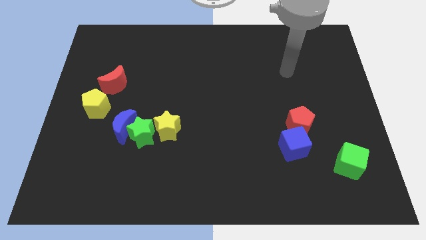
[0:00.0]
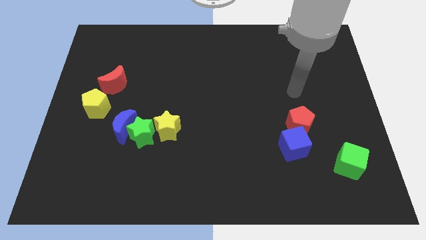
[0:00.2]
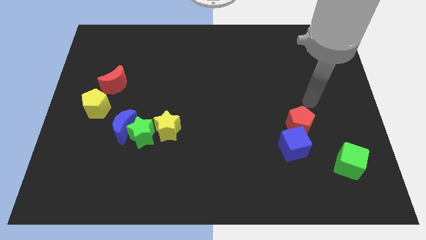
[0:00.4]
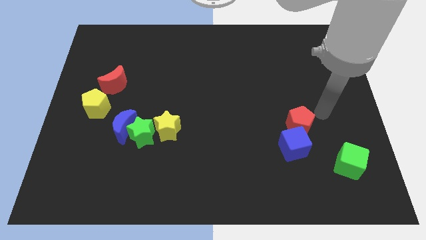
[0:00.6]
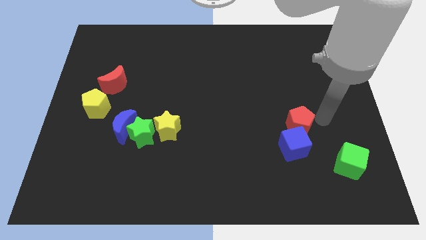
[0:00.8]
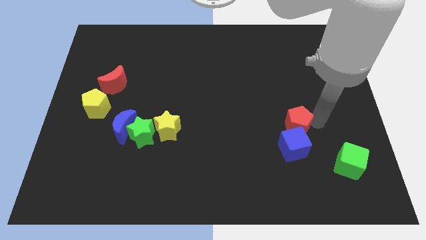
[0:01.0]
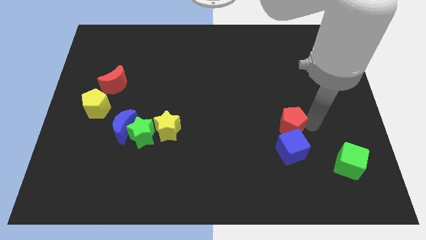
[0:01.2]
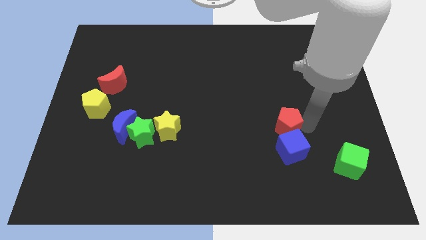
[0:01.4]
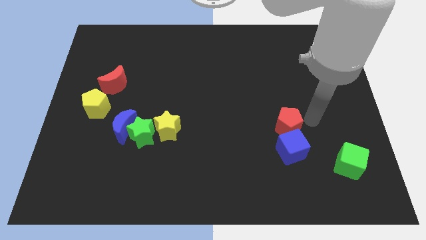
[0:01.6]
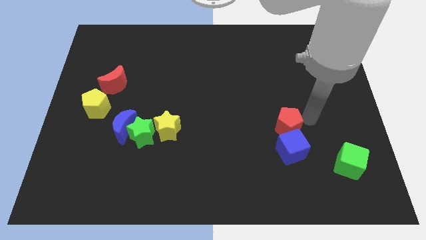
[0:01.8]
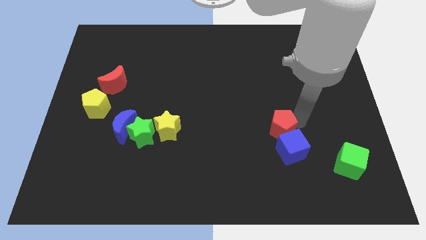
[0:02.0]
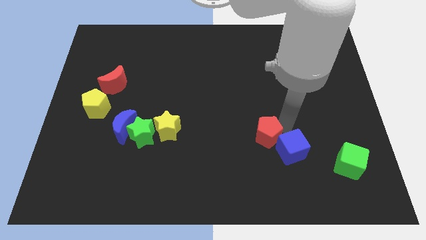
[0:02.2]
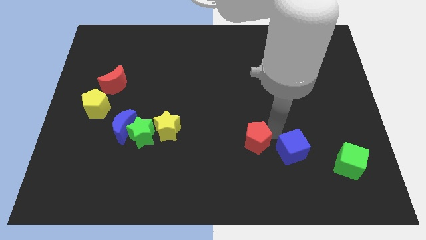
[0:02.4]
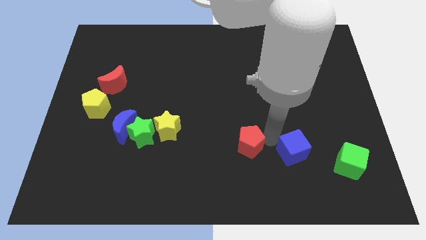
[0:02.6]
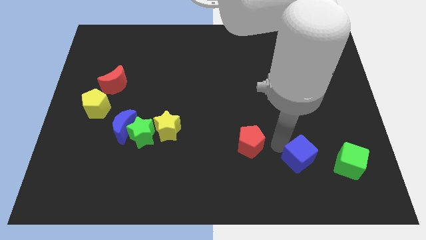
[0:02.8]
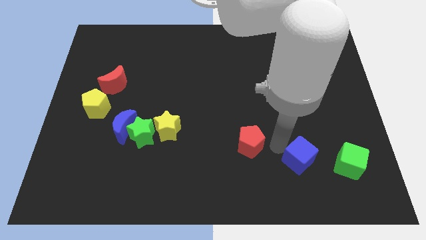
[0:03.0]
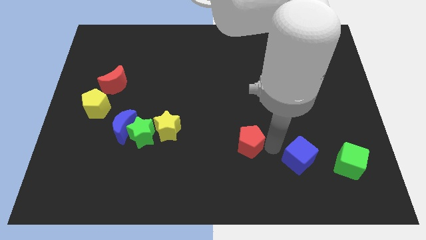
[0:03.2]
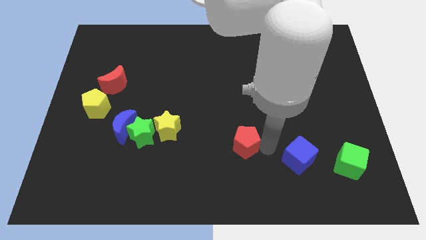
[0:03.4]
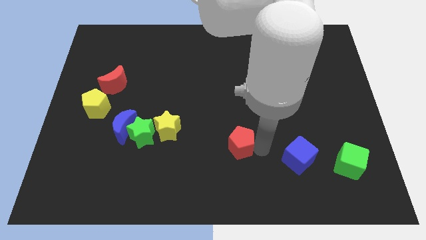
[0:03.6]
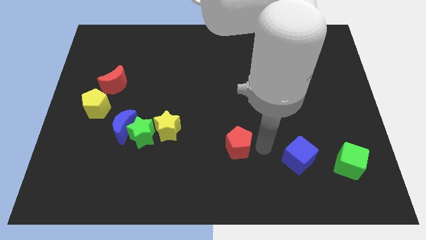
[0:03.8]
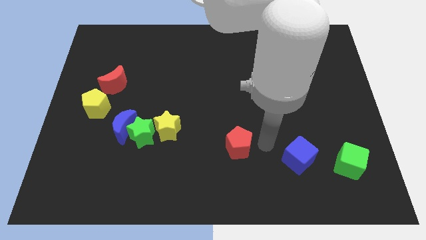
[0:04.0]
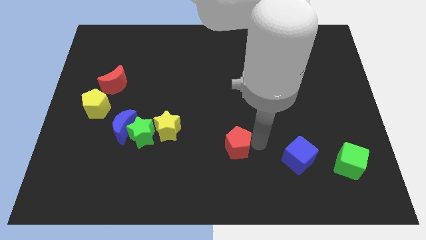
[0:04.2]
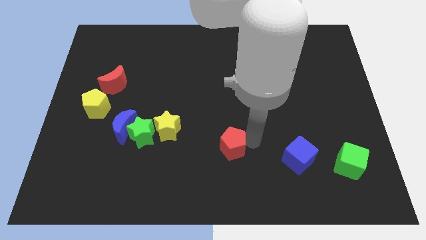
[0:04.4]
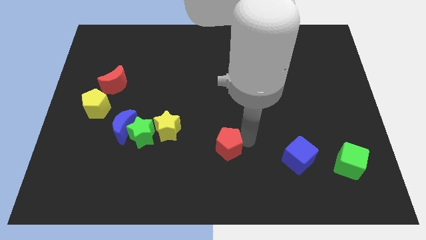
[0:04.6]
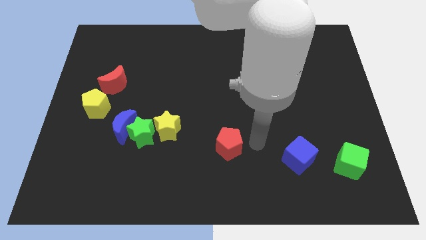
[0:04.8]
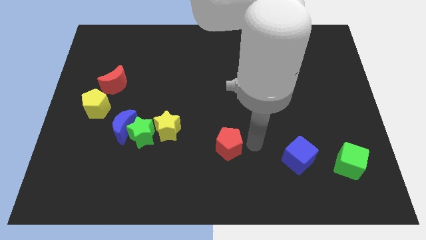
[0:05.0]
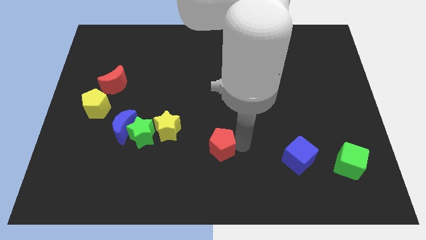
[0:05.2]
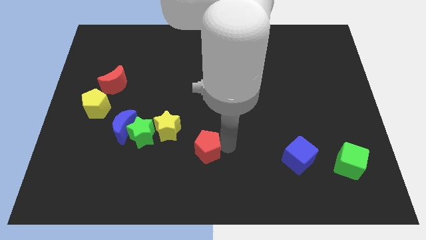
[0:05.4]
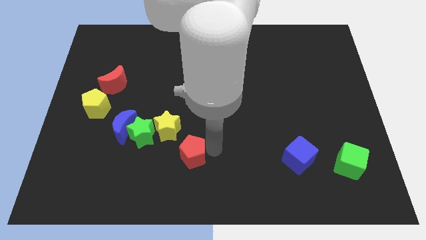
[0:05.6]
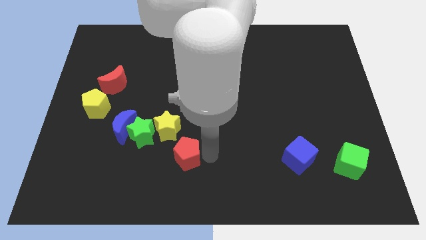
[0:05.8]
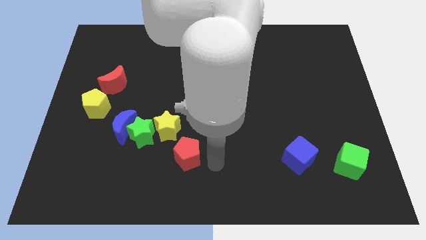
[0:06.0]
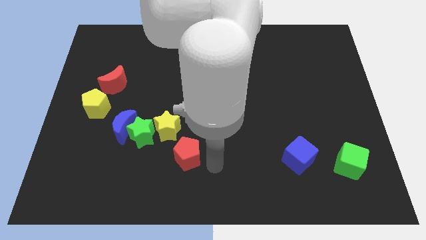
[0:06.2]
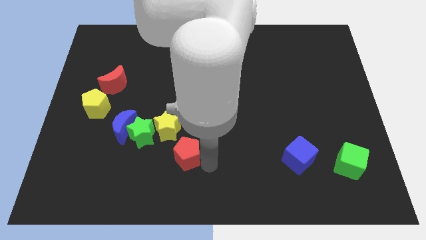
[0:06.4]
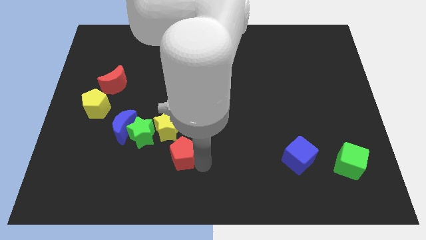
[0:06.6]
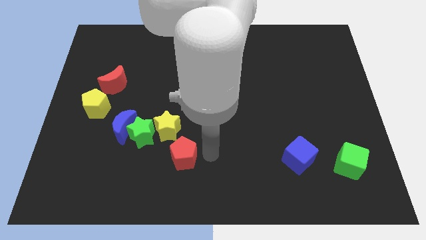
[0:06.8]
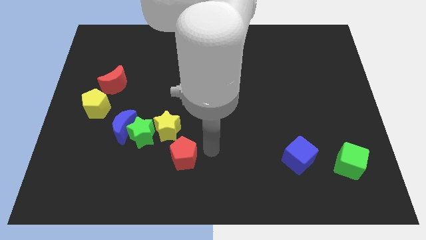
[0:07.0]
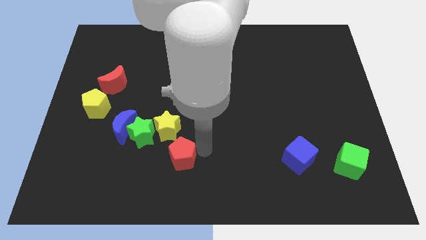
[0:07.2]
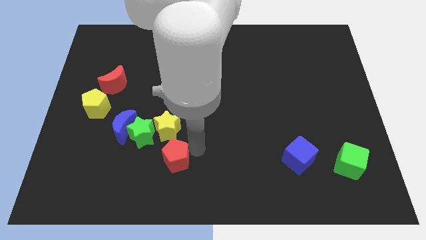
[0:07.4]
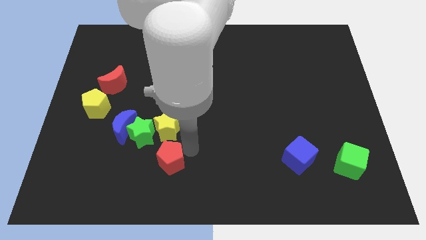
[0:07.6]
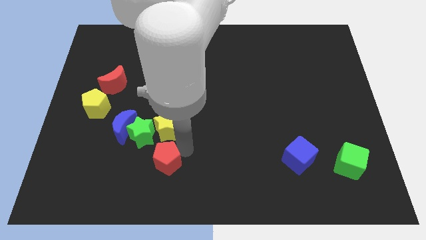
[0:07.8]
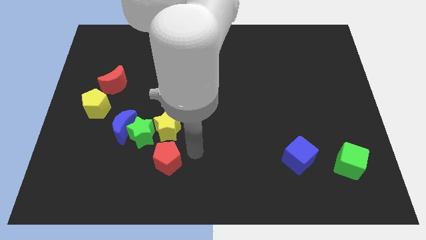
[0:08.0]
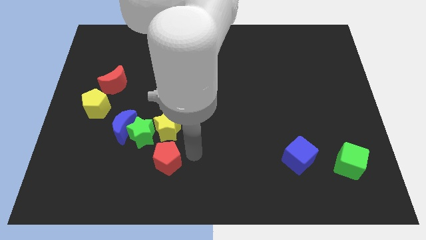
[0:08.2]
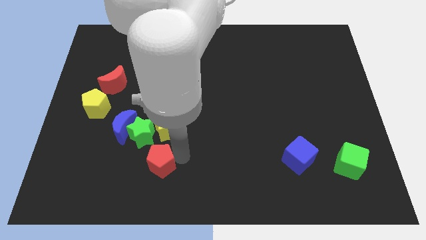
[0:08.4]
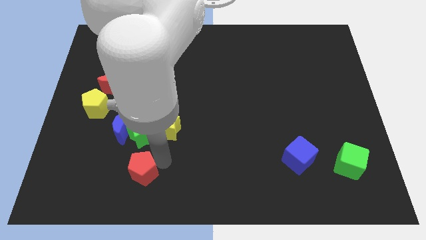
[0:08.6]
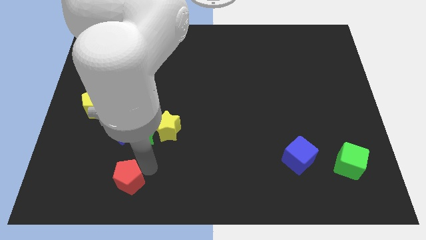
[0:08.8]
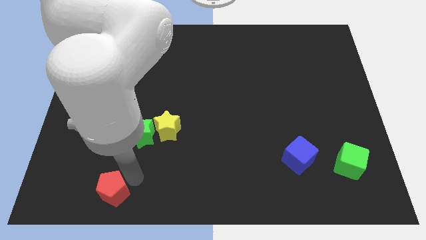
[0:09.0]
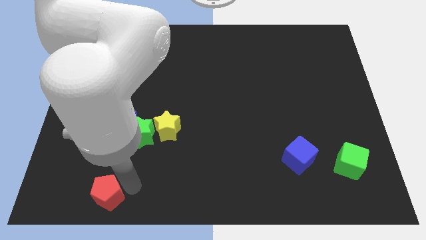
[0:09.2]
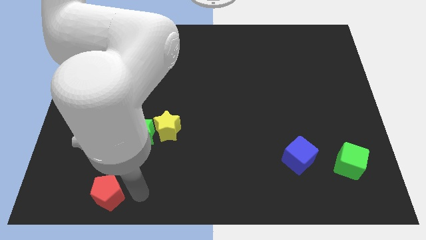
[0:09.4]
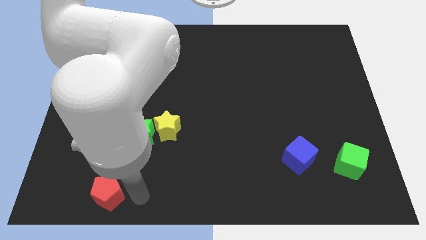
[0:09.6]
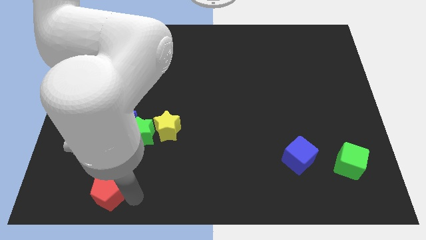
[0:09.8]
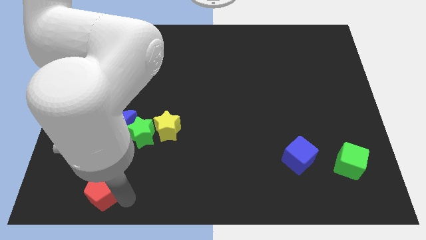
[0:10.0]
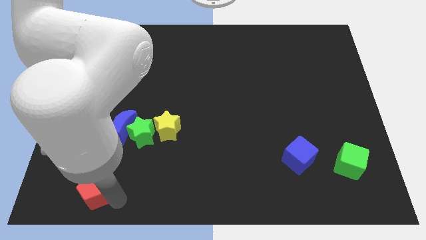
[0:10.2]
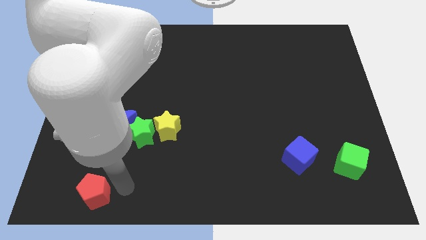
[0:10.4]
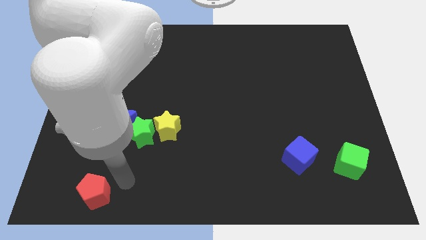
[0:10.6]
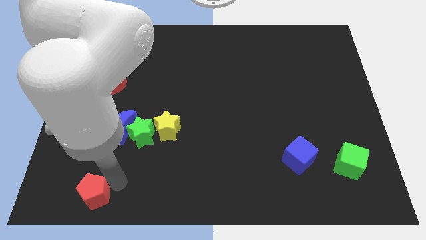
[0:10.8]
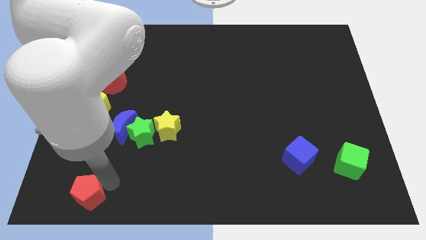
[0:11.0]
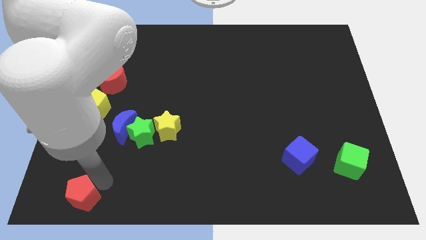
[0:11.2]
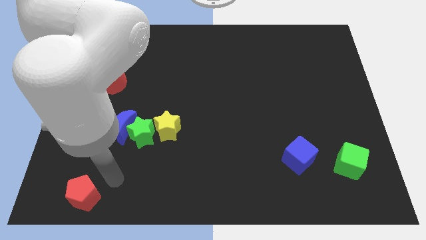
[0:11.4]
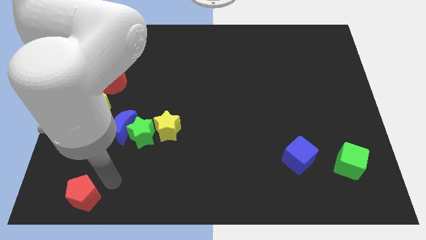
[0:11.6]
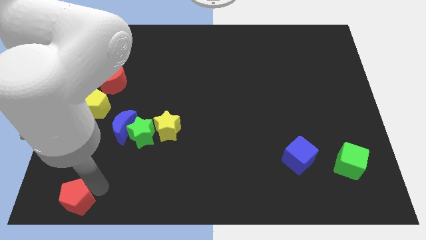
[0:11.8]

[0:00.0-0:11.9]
slide the red pentagon to the bottom left of the board
